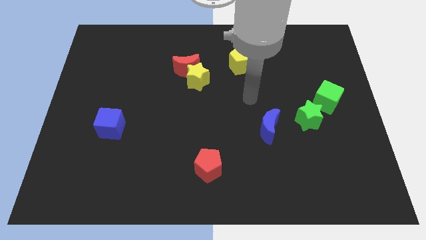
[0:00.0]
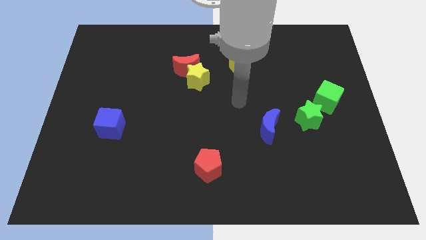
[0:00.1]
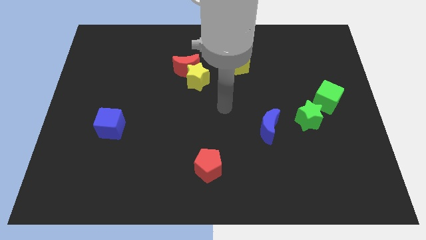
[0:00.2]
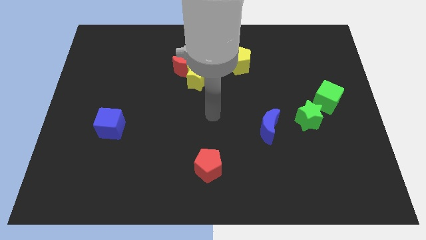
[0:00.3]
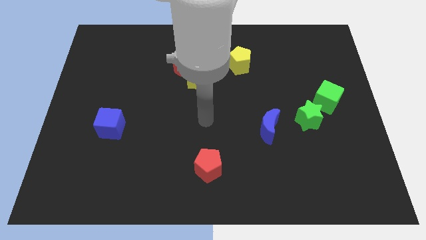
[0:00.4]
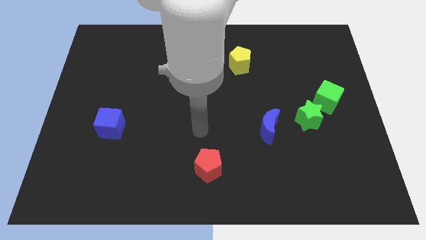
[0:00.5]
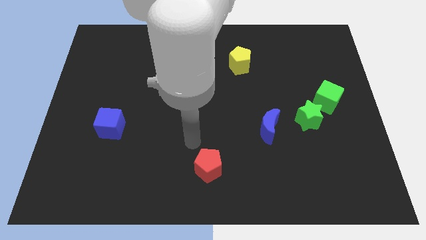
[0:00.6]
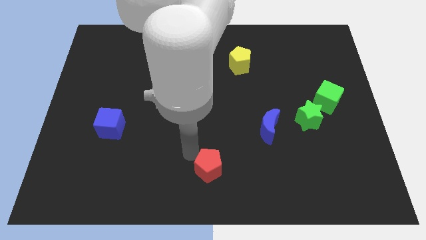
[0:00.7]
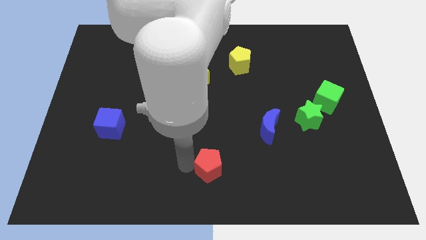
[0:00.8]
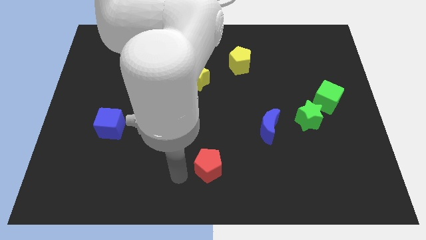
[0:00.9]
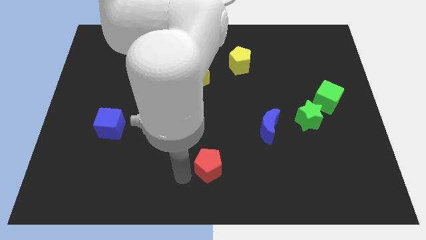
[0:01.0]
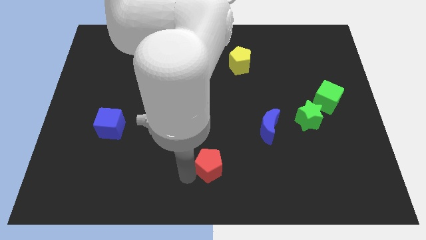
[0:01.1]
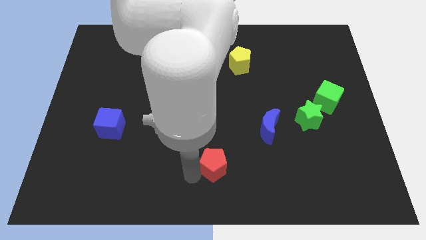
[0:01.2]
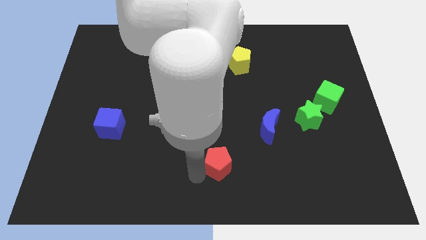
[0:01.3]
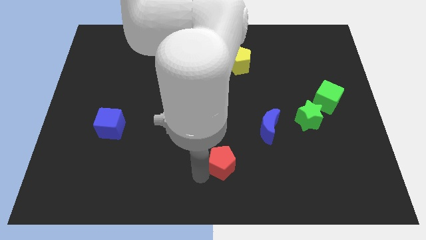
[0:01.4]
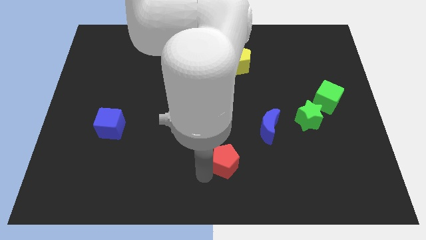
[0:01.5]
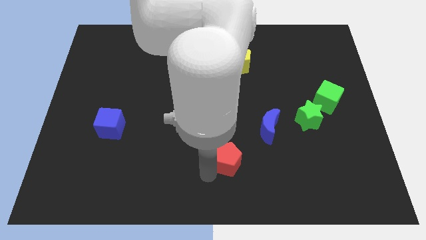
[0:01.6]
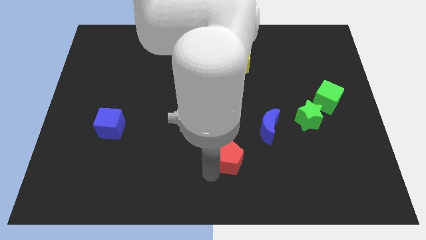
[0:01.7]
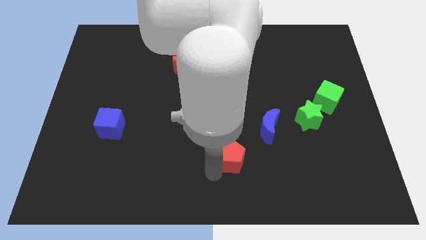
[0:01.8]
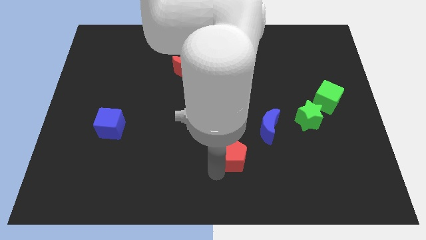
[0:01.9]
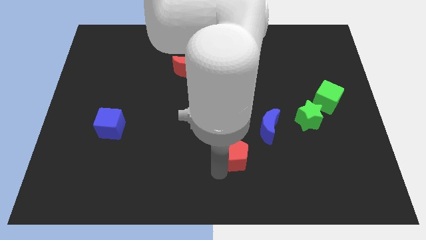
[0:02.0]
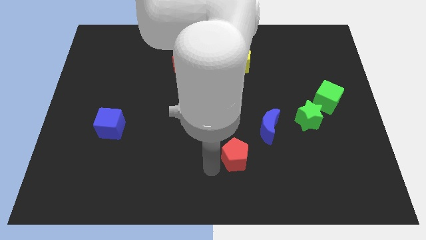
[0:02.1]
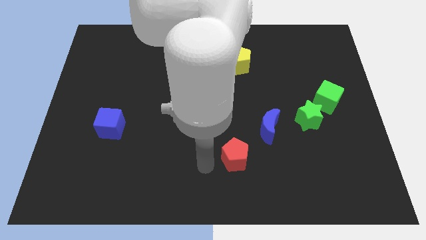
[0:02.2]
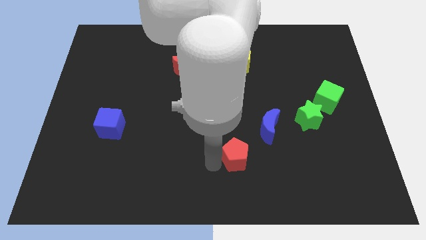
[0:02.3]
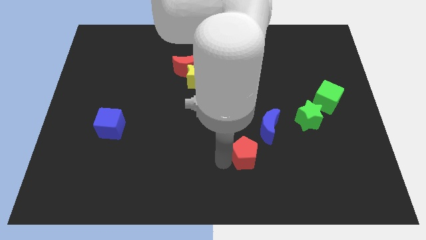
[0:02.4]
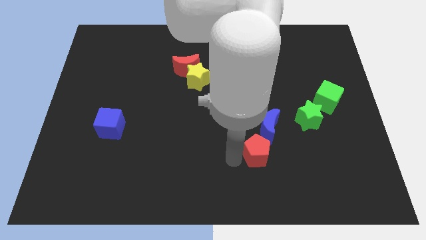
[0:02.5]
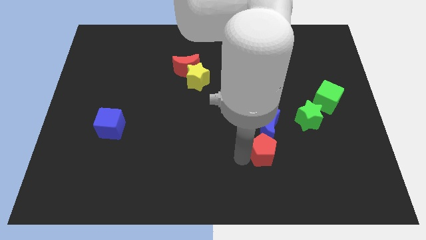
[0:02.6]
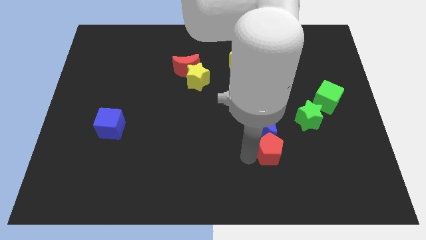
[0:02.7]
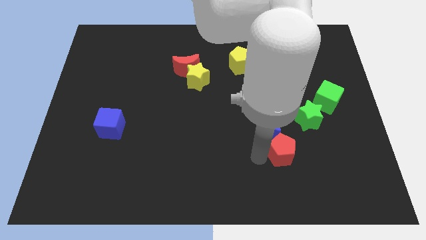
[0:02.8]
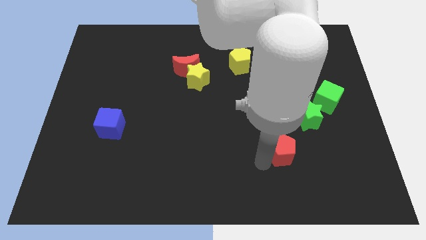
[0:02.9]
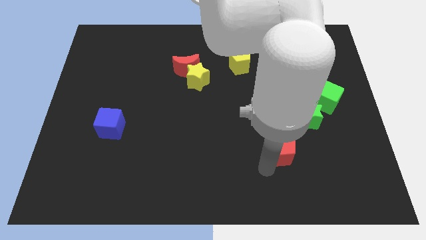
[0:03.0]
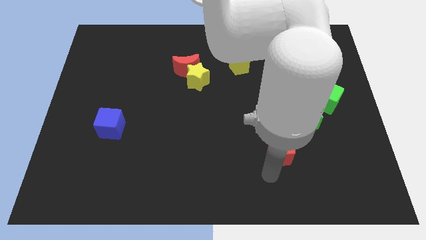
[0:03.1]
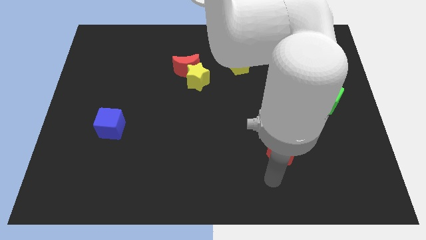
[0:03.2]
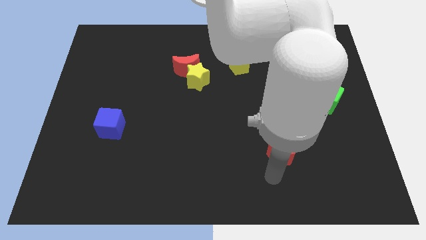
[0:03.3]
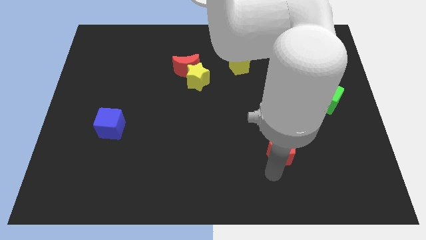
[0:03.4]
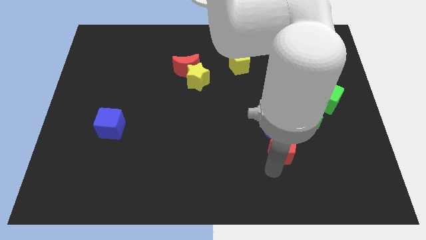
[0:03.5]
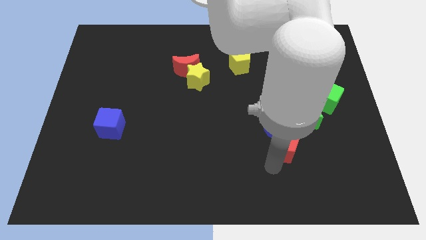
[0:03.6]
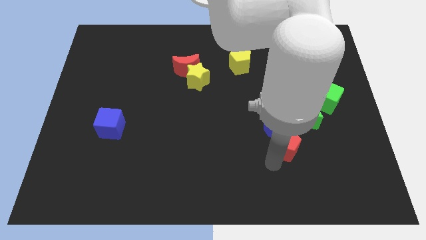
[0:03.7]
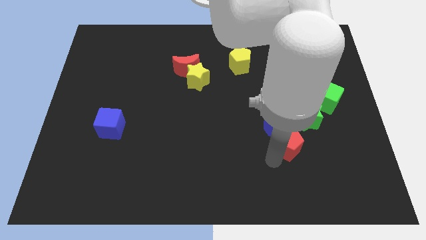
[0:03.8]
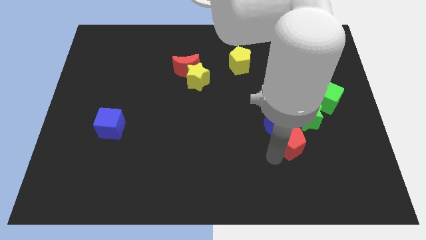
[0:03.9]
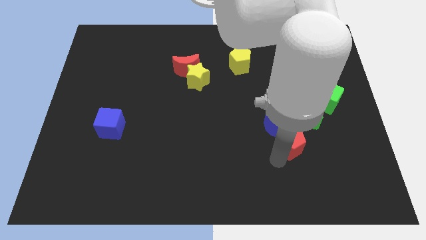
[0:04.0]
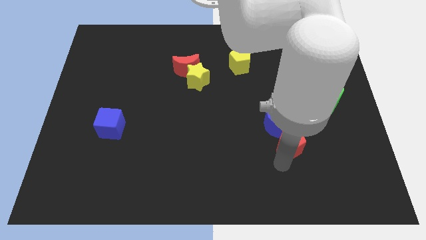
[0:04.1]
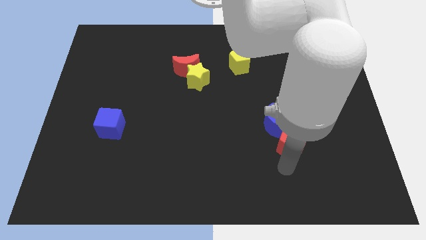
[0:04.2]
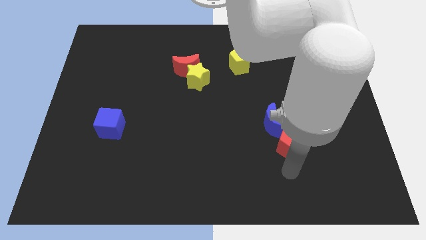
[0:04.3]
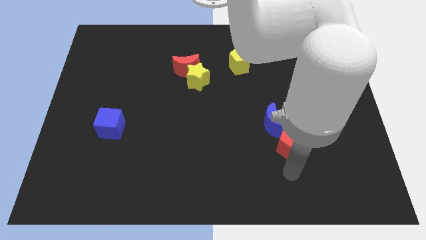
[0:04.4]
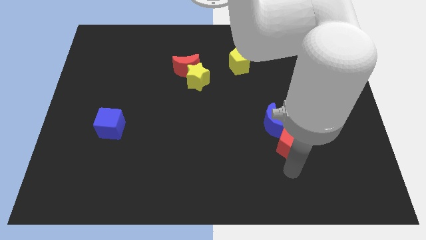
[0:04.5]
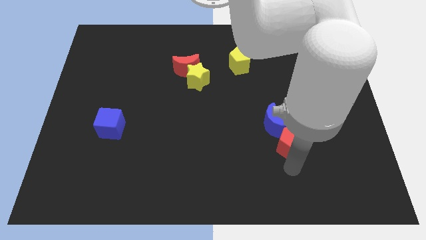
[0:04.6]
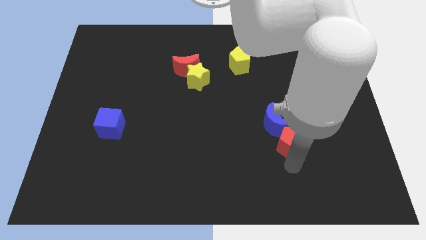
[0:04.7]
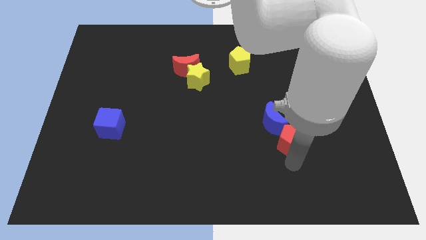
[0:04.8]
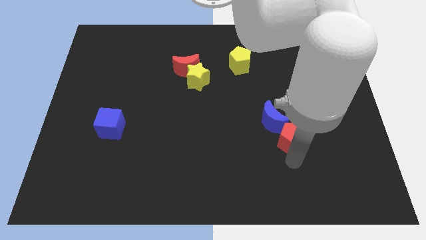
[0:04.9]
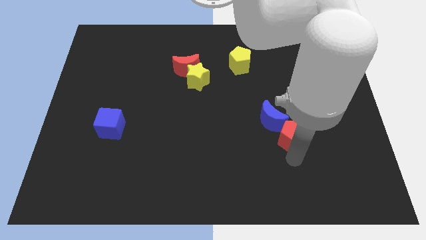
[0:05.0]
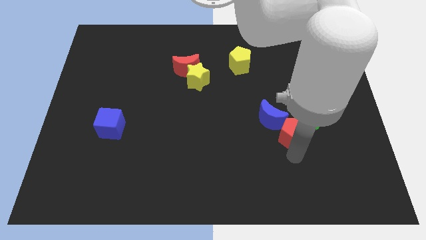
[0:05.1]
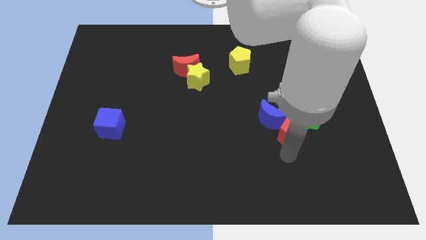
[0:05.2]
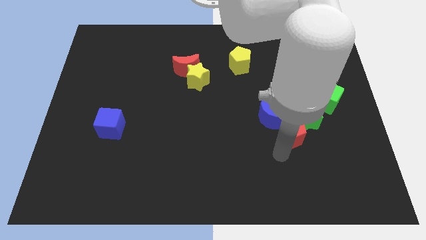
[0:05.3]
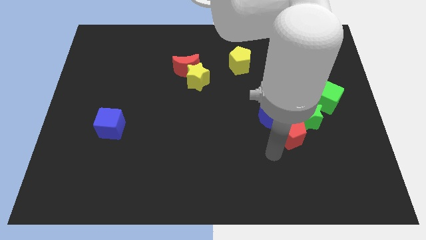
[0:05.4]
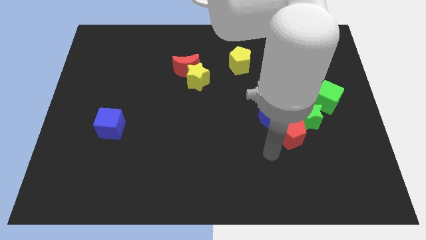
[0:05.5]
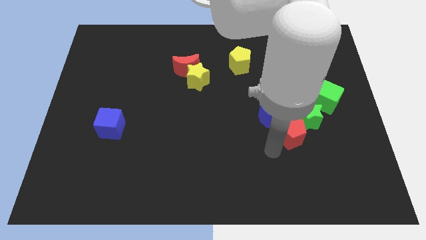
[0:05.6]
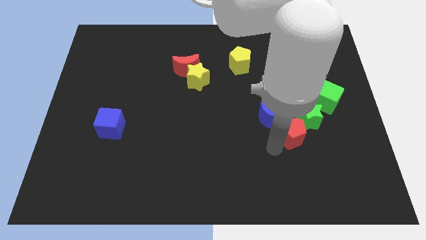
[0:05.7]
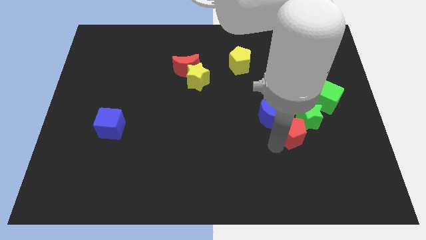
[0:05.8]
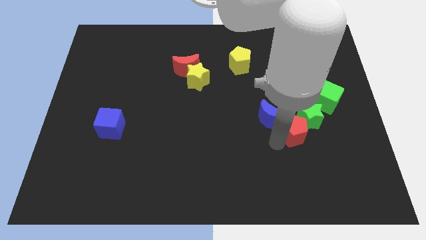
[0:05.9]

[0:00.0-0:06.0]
slide the red pentagon next to the green star

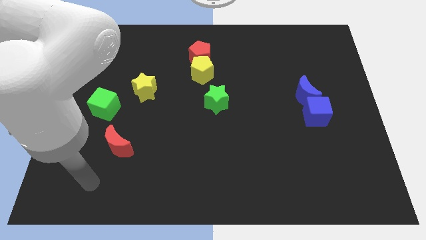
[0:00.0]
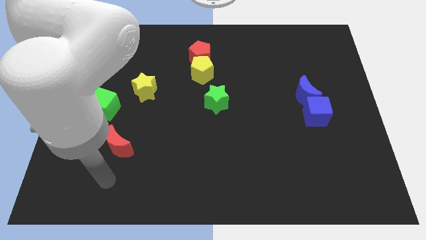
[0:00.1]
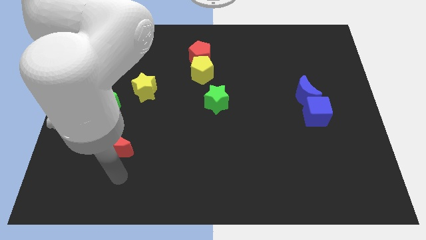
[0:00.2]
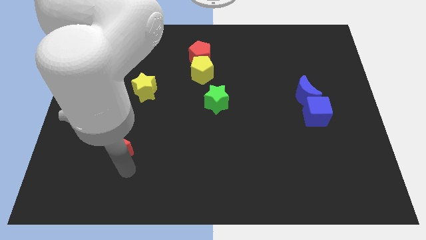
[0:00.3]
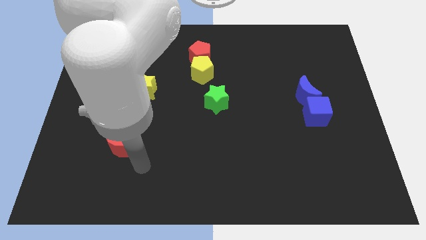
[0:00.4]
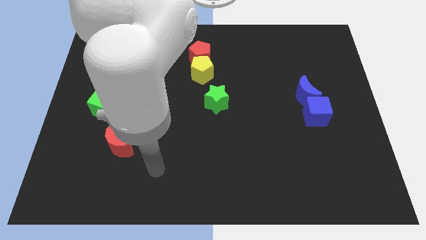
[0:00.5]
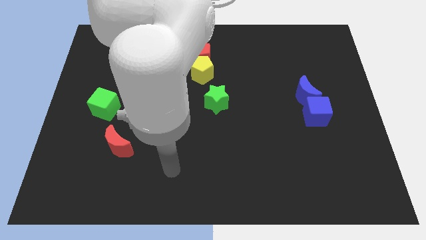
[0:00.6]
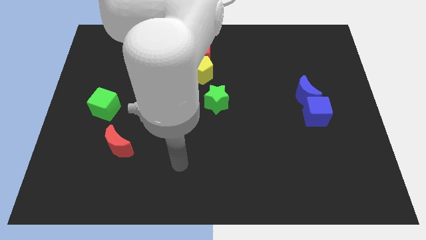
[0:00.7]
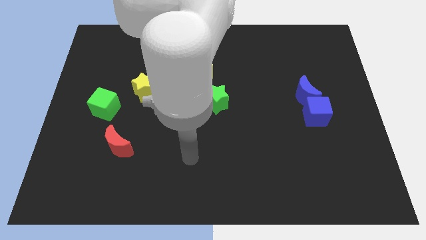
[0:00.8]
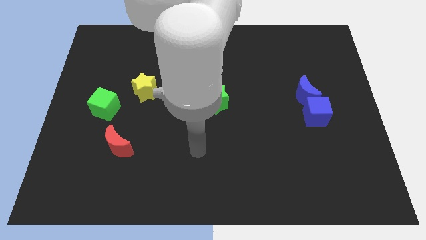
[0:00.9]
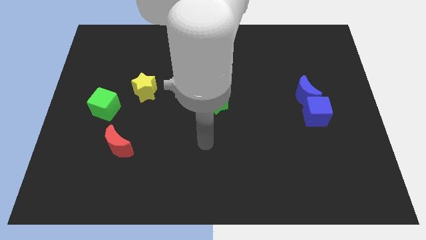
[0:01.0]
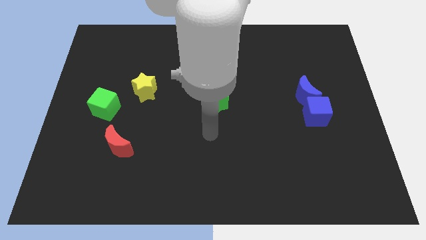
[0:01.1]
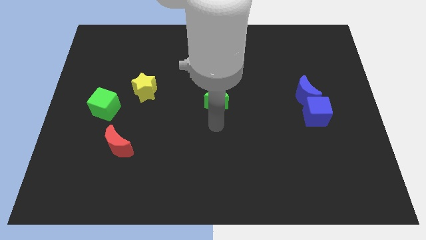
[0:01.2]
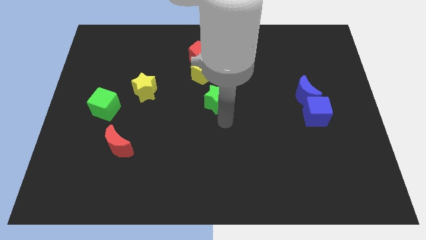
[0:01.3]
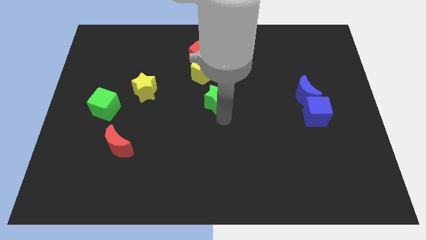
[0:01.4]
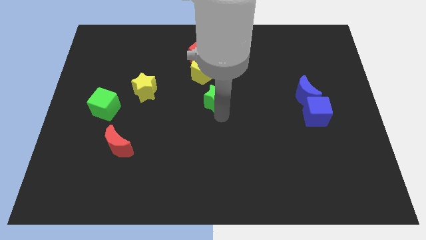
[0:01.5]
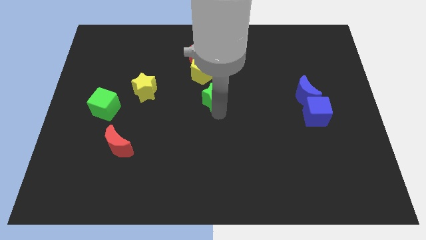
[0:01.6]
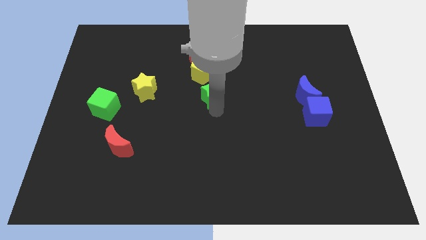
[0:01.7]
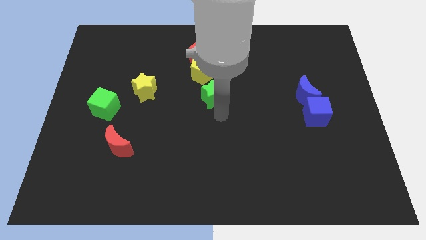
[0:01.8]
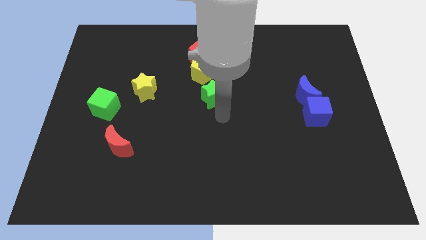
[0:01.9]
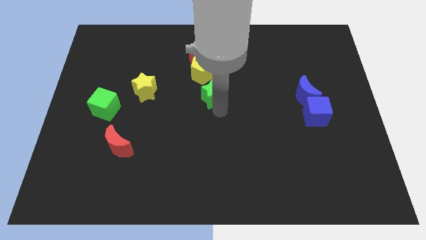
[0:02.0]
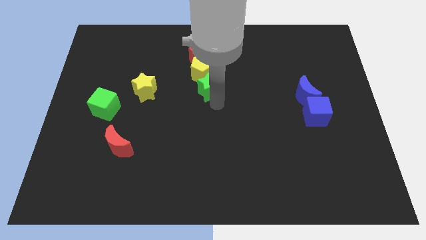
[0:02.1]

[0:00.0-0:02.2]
move the green star to the yellow pentagon
